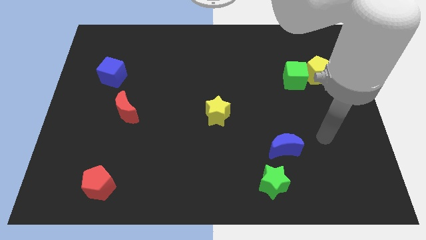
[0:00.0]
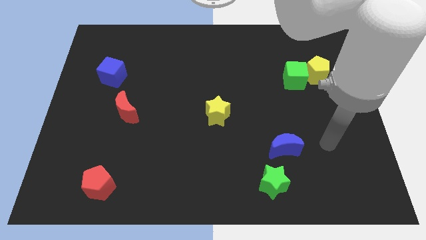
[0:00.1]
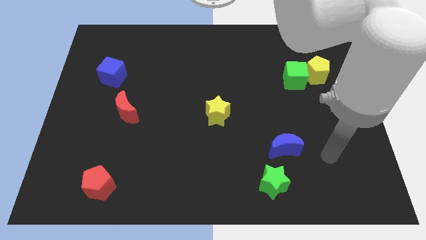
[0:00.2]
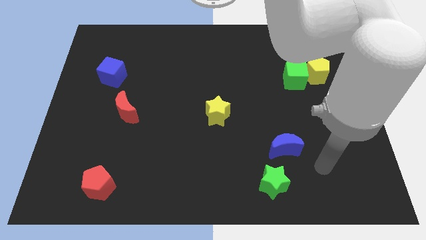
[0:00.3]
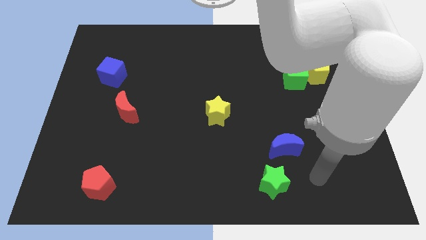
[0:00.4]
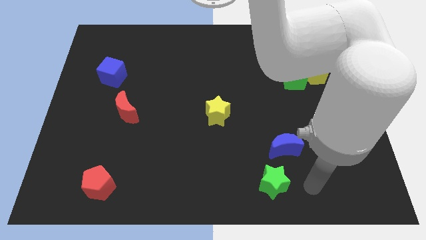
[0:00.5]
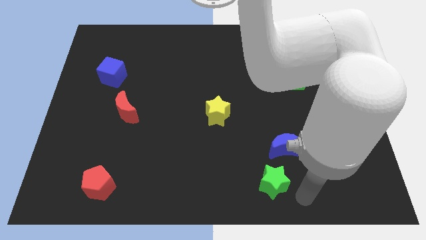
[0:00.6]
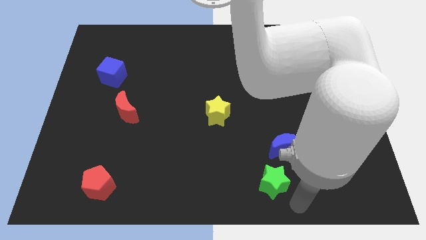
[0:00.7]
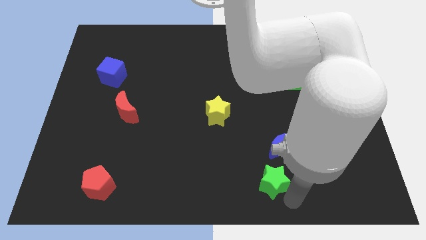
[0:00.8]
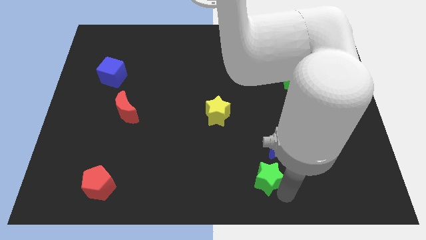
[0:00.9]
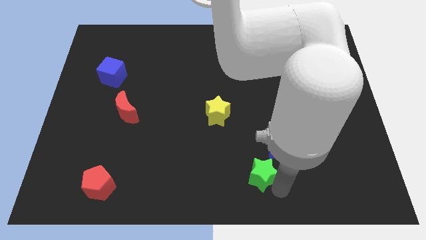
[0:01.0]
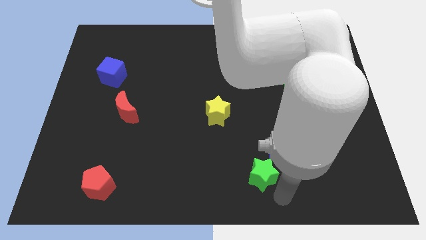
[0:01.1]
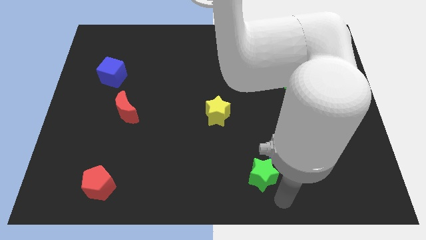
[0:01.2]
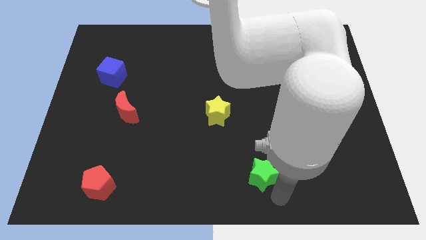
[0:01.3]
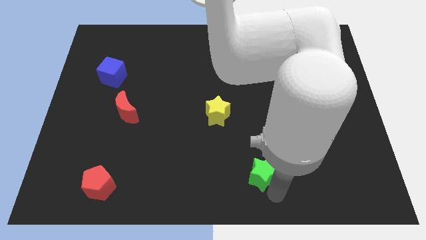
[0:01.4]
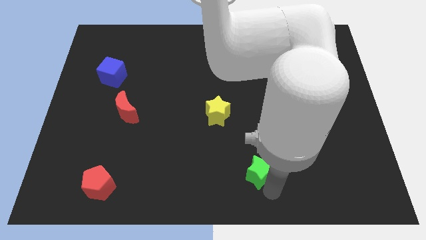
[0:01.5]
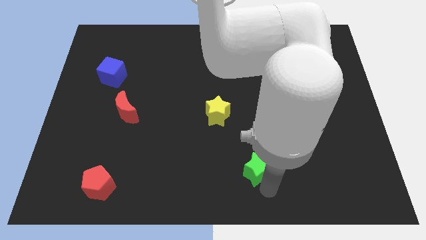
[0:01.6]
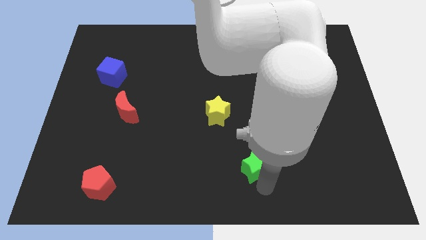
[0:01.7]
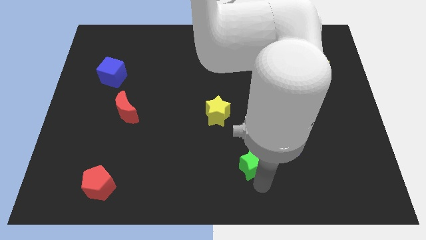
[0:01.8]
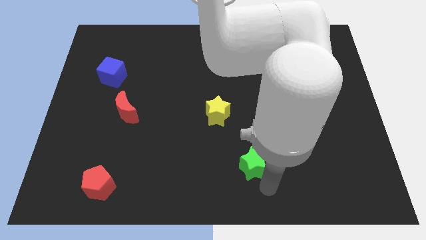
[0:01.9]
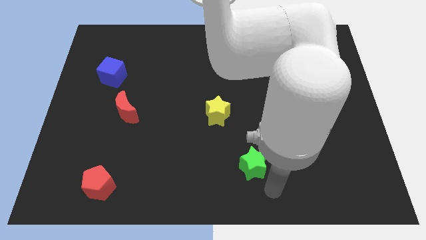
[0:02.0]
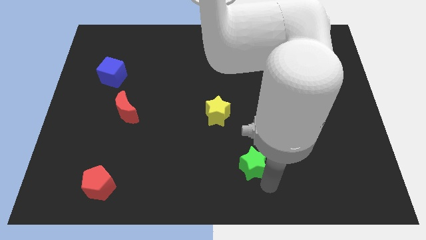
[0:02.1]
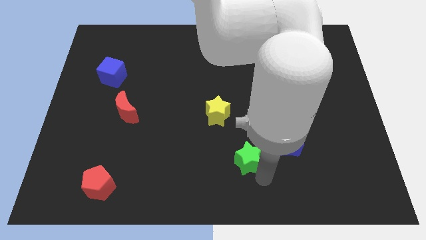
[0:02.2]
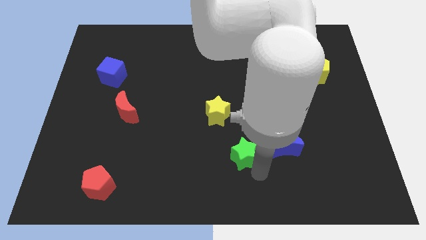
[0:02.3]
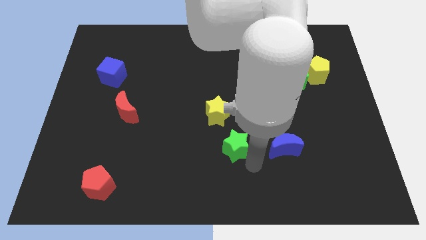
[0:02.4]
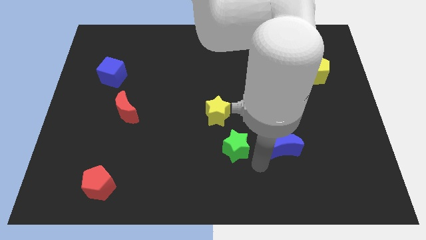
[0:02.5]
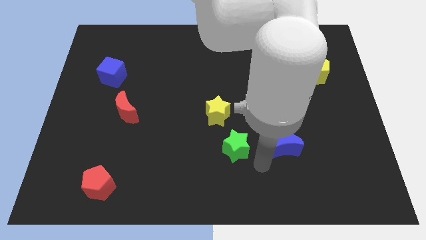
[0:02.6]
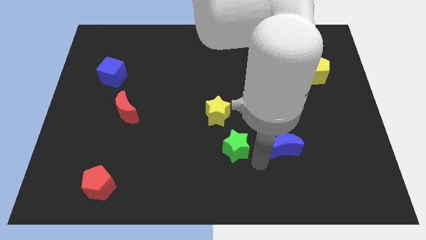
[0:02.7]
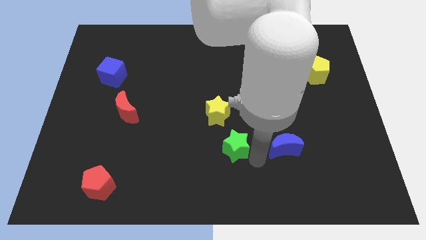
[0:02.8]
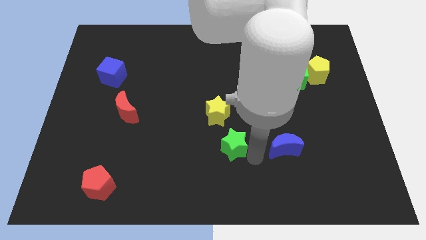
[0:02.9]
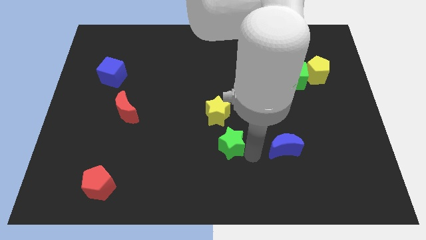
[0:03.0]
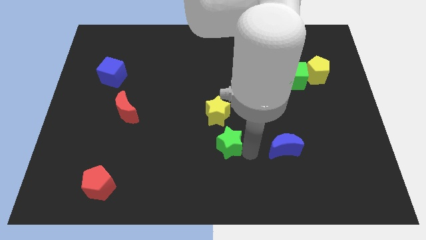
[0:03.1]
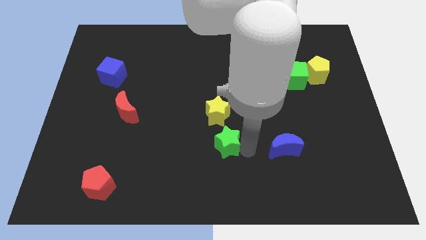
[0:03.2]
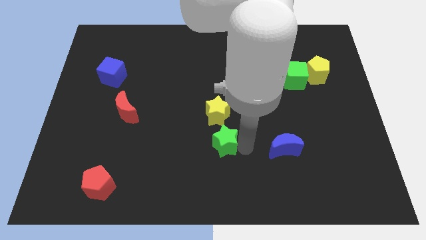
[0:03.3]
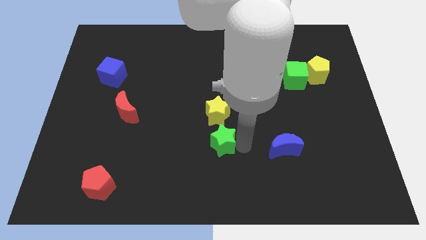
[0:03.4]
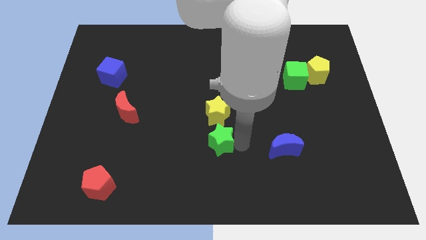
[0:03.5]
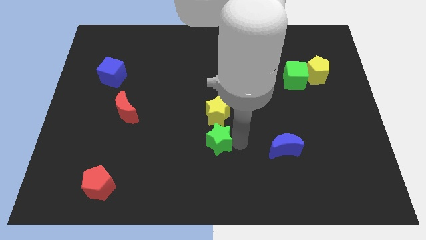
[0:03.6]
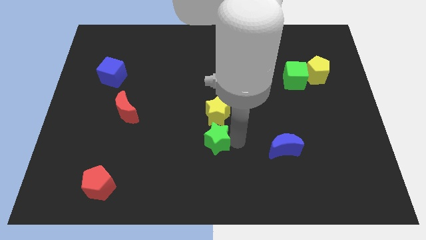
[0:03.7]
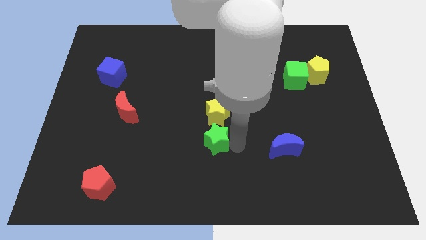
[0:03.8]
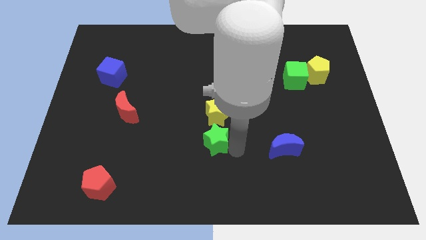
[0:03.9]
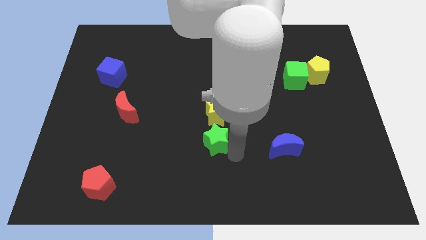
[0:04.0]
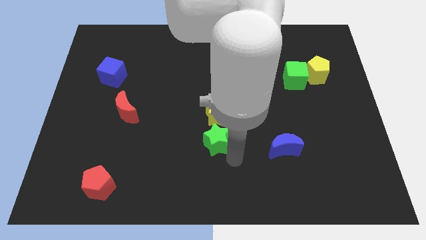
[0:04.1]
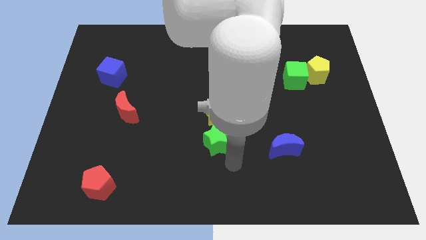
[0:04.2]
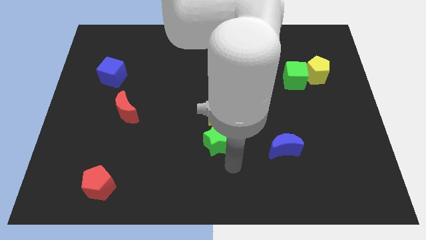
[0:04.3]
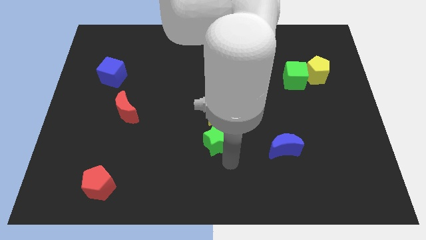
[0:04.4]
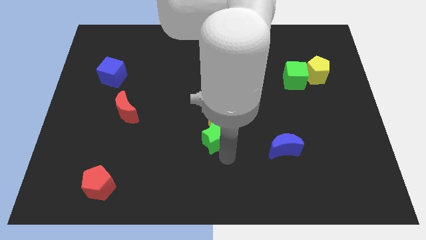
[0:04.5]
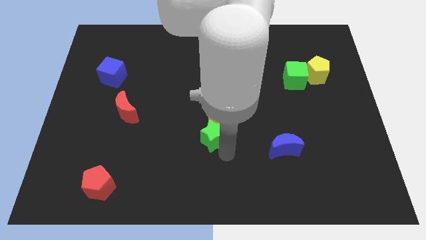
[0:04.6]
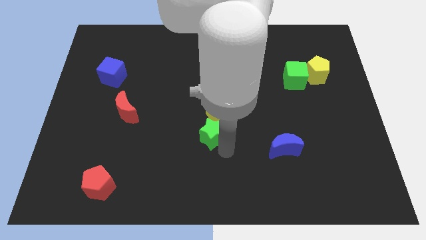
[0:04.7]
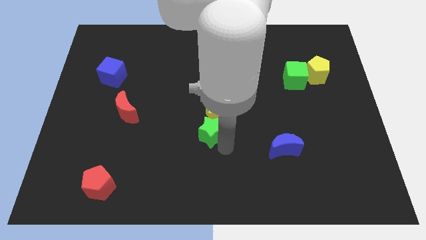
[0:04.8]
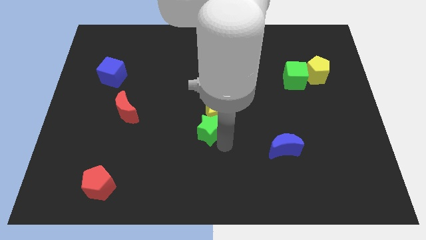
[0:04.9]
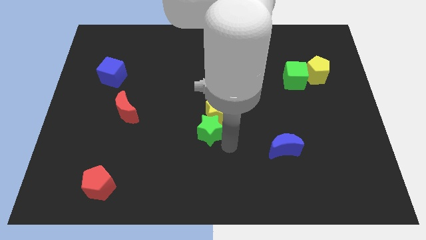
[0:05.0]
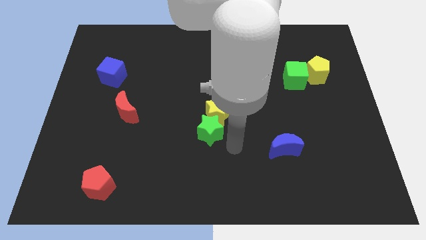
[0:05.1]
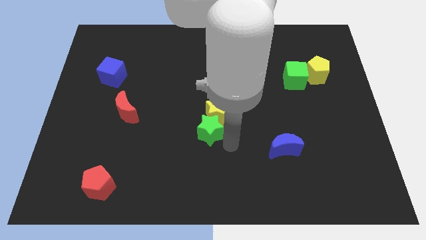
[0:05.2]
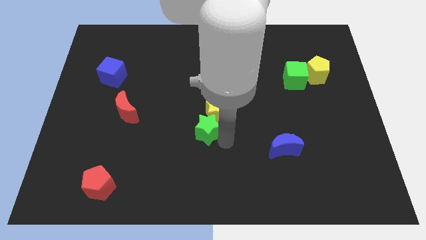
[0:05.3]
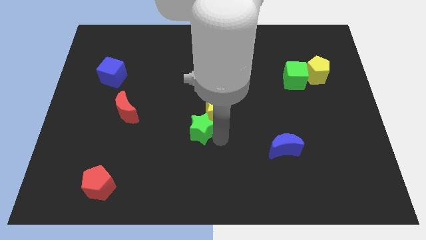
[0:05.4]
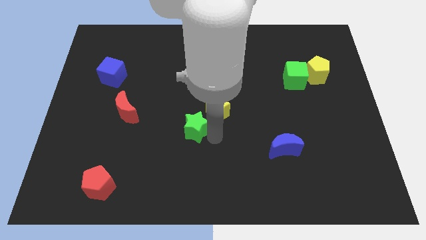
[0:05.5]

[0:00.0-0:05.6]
push the green star diagonally up and left

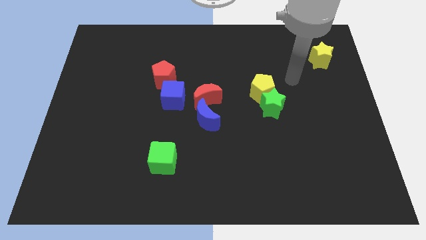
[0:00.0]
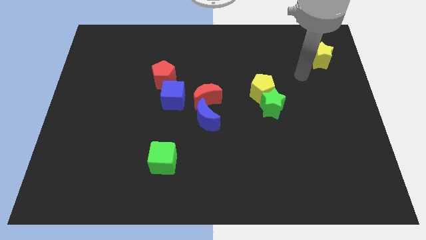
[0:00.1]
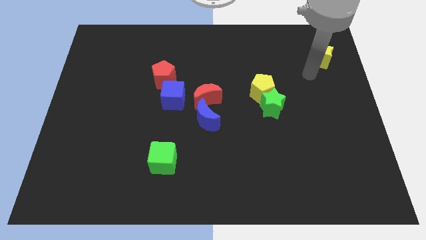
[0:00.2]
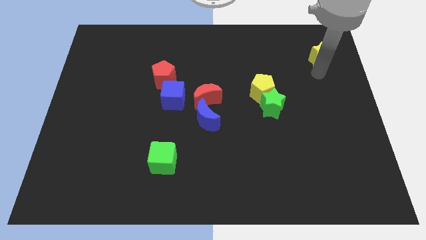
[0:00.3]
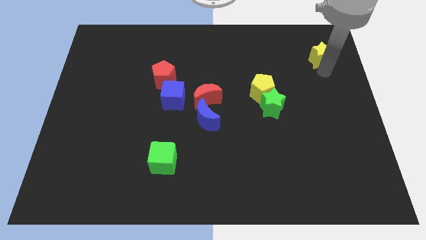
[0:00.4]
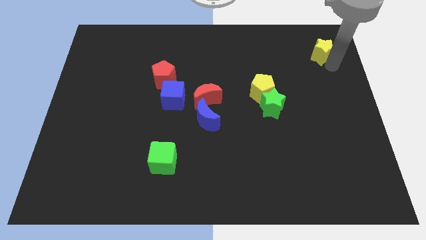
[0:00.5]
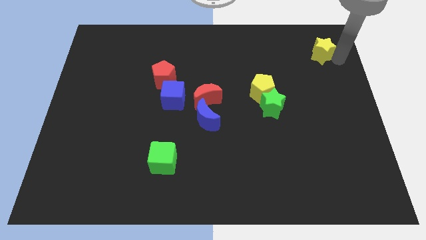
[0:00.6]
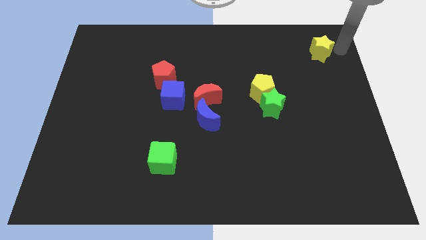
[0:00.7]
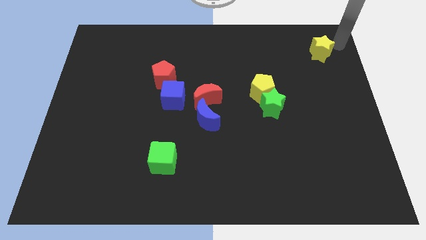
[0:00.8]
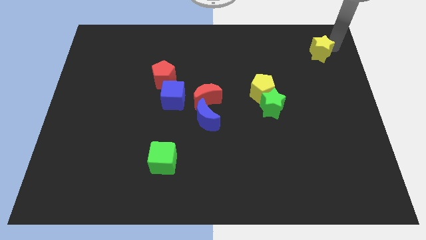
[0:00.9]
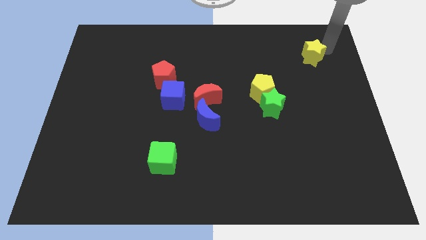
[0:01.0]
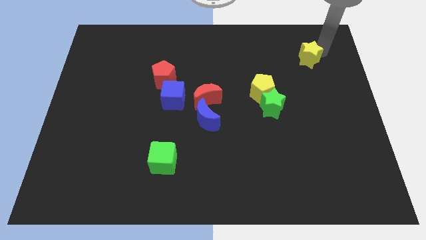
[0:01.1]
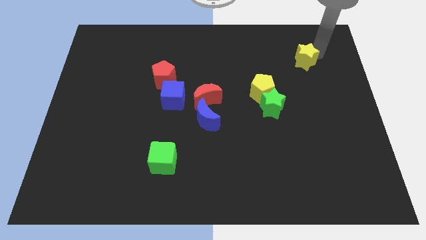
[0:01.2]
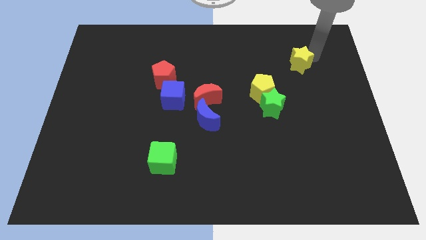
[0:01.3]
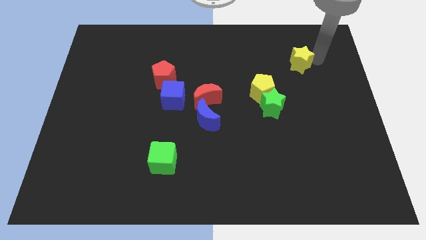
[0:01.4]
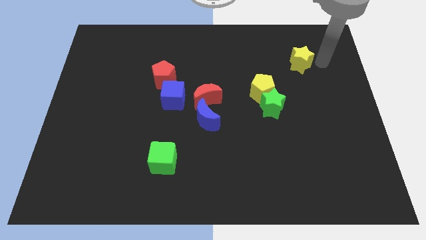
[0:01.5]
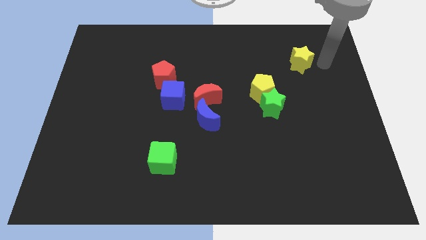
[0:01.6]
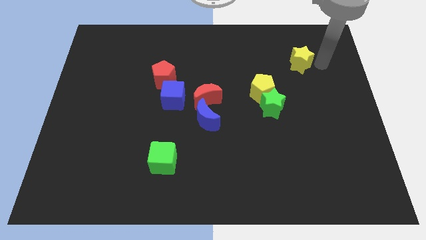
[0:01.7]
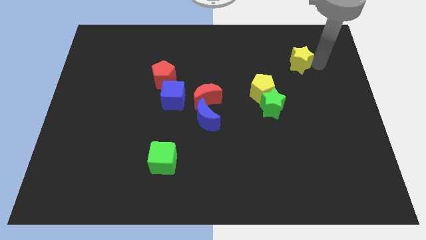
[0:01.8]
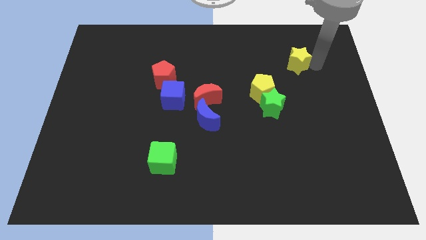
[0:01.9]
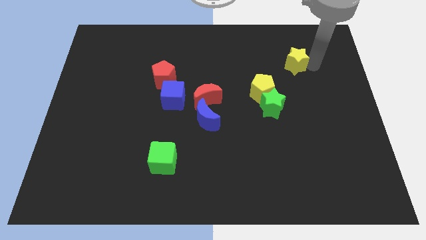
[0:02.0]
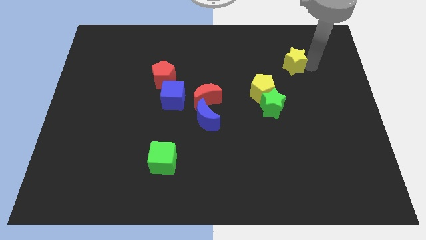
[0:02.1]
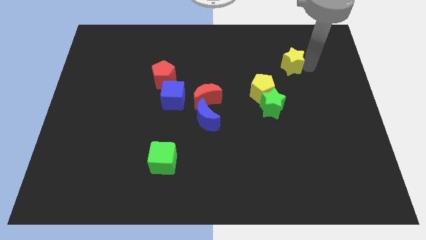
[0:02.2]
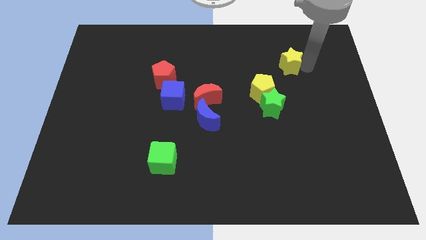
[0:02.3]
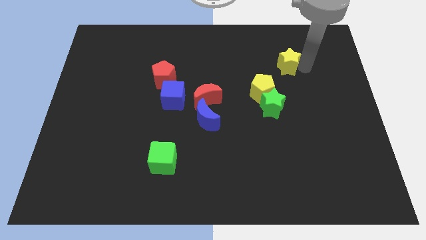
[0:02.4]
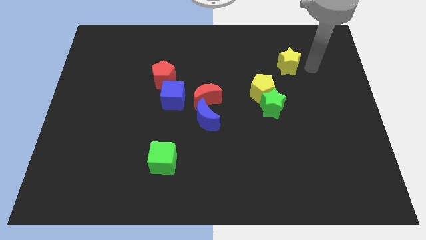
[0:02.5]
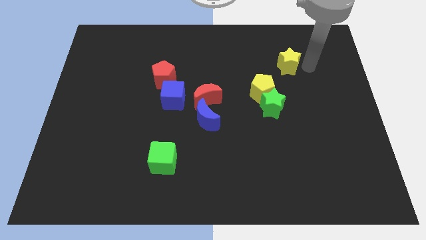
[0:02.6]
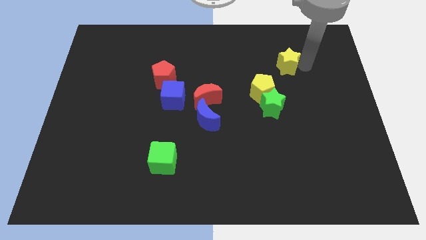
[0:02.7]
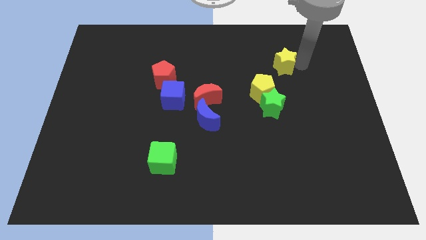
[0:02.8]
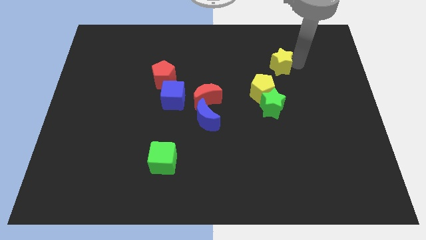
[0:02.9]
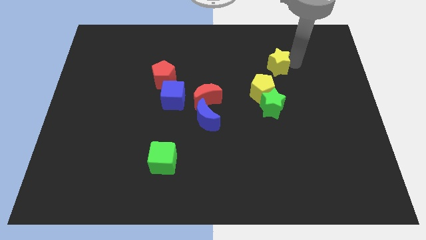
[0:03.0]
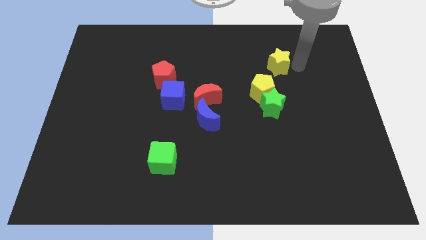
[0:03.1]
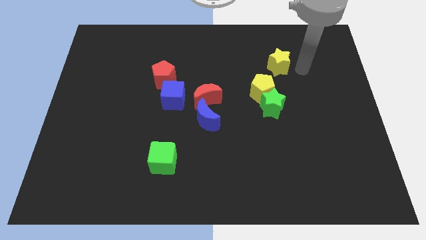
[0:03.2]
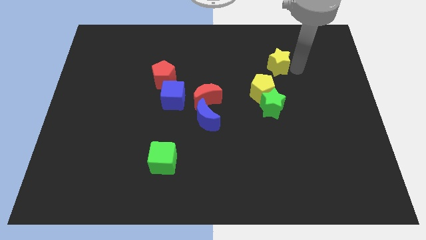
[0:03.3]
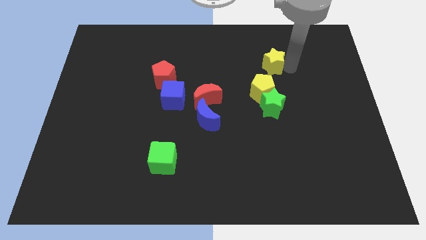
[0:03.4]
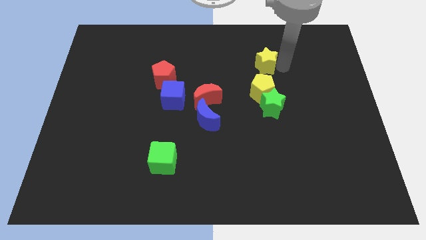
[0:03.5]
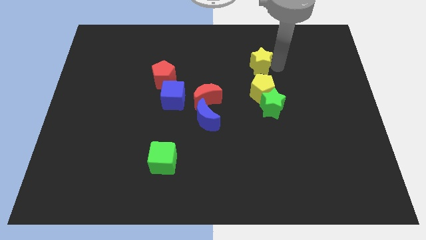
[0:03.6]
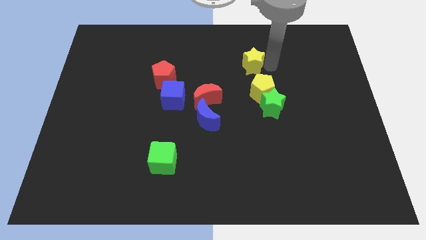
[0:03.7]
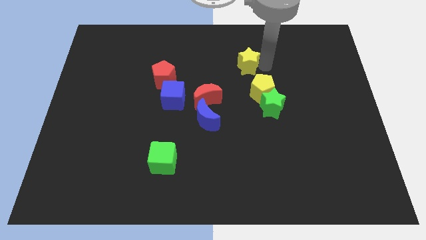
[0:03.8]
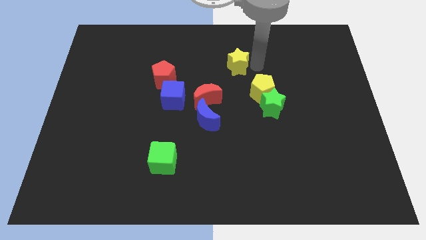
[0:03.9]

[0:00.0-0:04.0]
move the yellow star to the left
